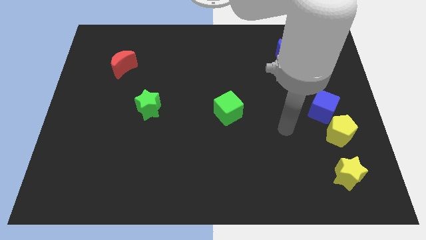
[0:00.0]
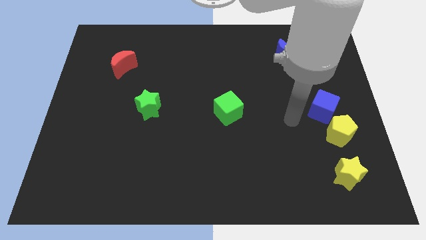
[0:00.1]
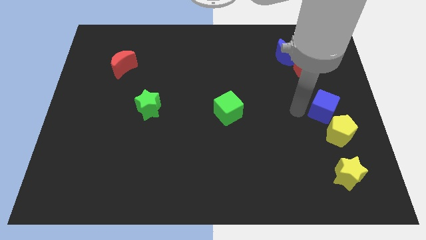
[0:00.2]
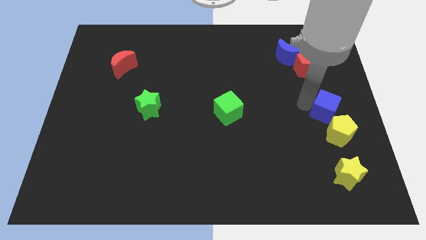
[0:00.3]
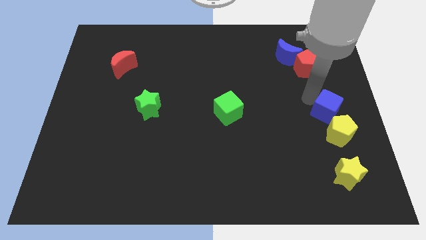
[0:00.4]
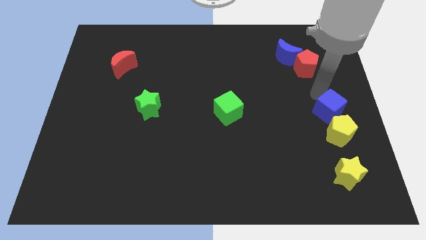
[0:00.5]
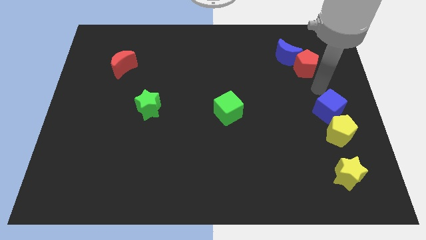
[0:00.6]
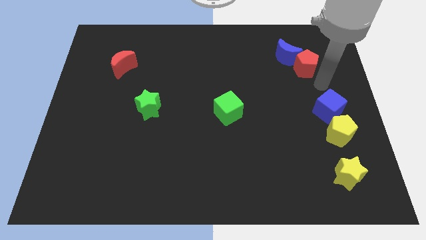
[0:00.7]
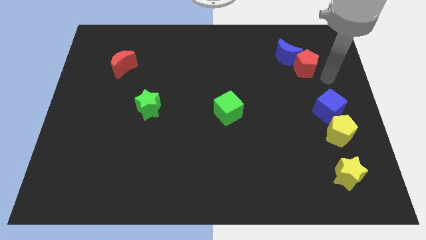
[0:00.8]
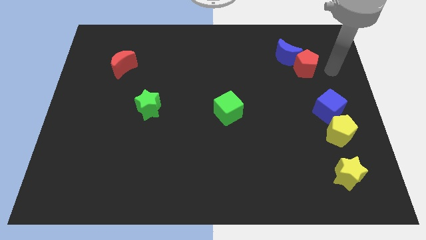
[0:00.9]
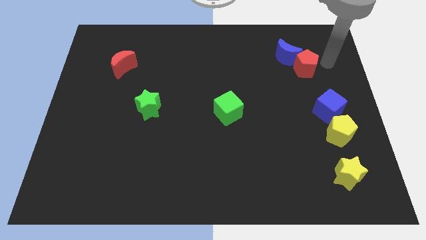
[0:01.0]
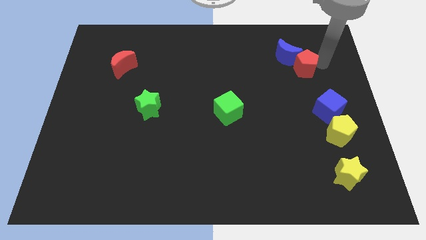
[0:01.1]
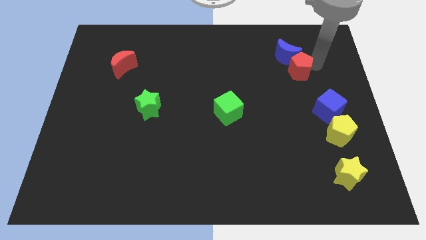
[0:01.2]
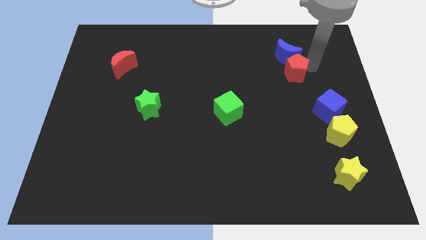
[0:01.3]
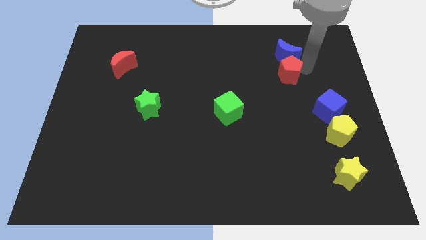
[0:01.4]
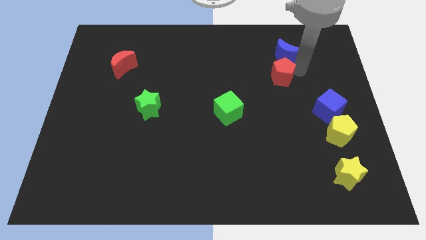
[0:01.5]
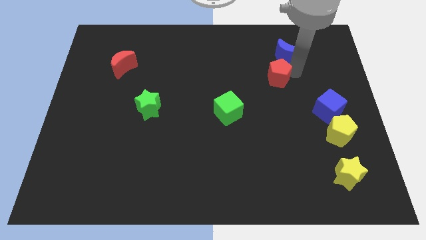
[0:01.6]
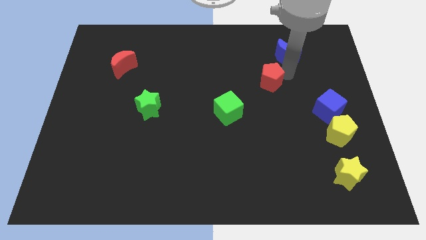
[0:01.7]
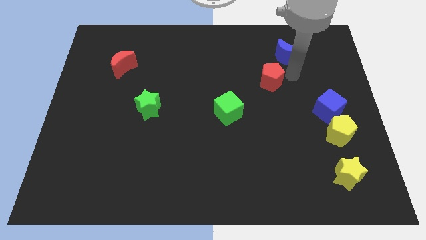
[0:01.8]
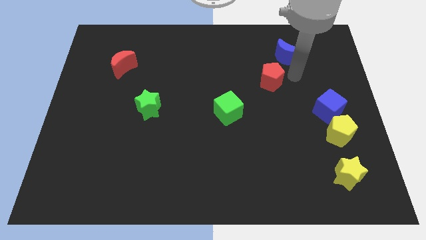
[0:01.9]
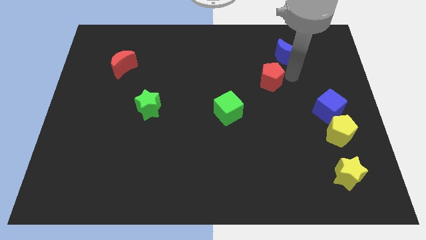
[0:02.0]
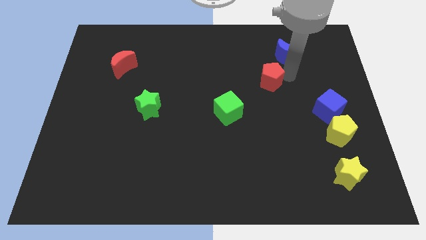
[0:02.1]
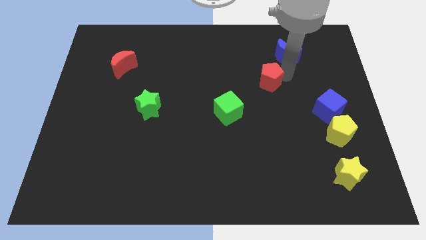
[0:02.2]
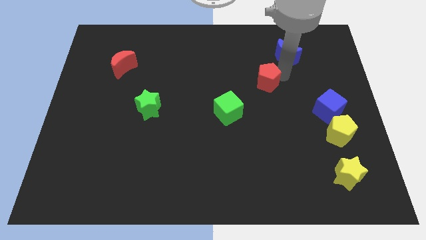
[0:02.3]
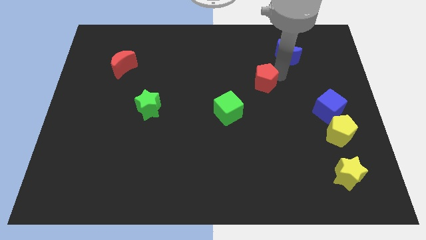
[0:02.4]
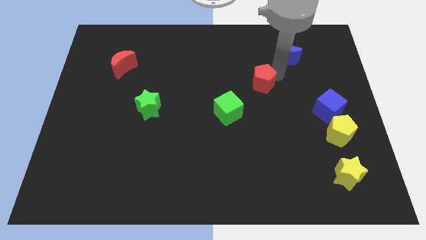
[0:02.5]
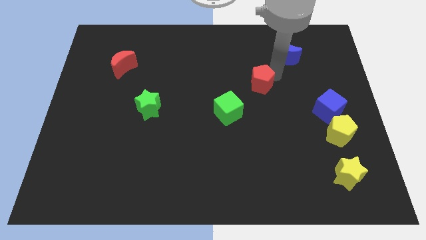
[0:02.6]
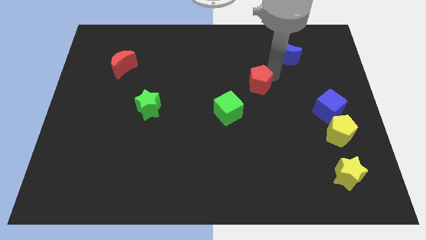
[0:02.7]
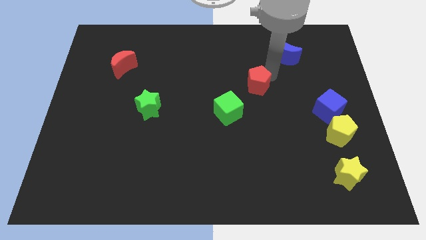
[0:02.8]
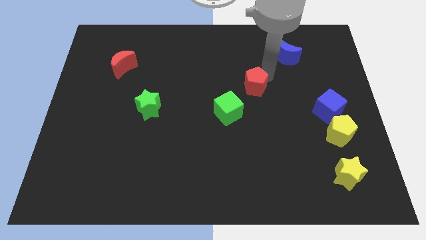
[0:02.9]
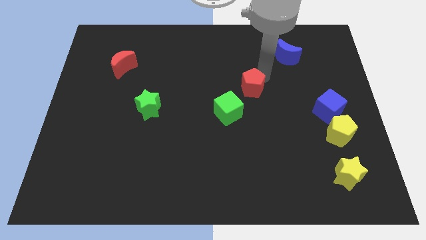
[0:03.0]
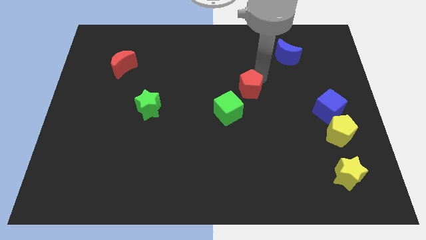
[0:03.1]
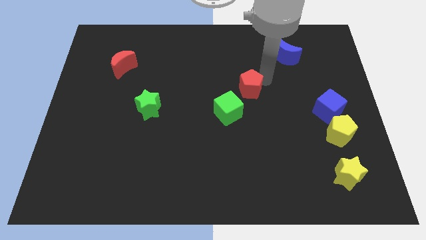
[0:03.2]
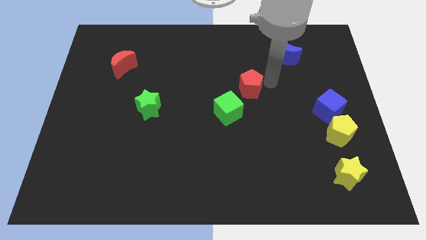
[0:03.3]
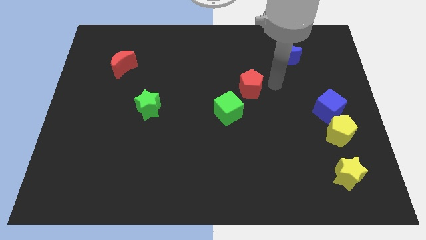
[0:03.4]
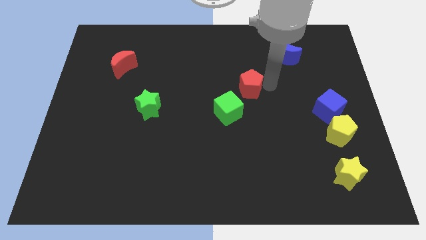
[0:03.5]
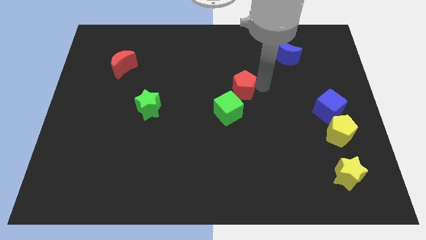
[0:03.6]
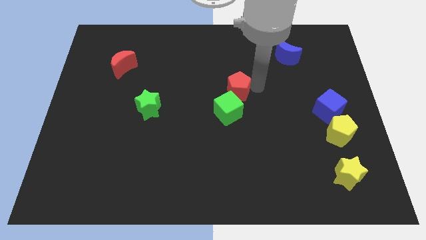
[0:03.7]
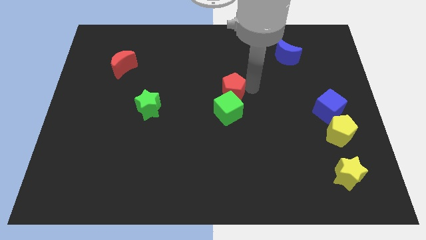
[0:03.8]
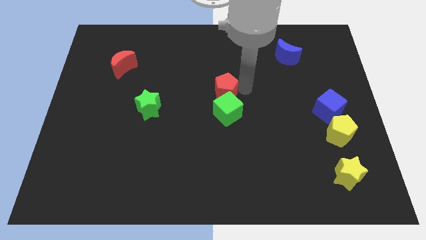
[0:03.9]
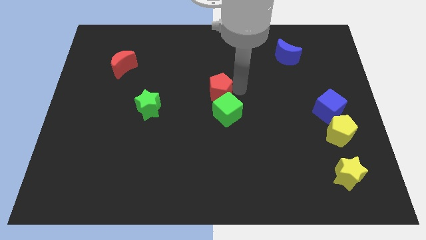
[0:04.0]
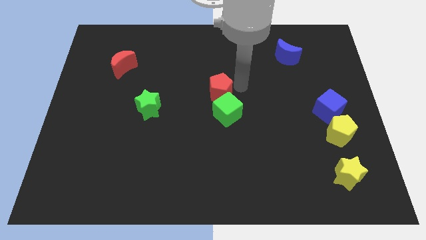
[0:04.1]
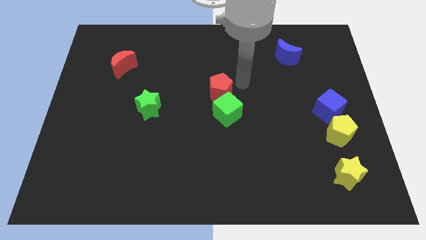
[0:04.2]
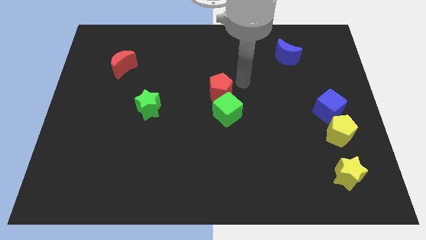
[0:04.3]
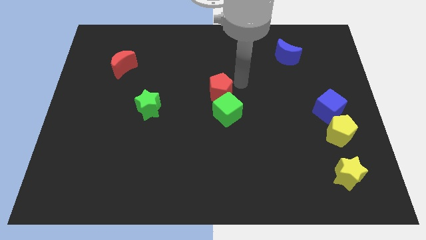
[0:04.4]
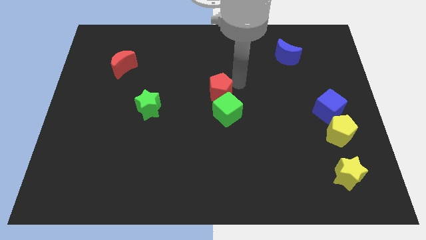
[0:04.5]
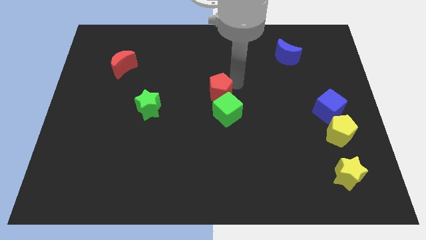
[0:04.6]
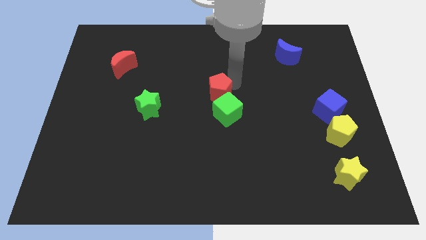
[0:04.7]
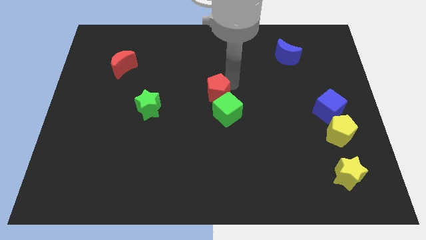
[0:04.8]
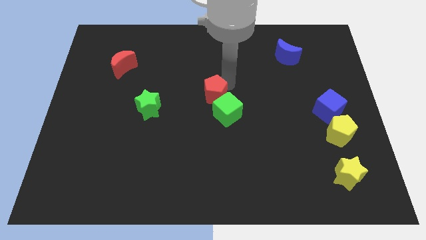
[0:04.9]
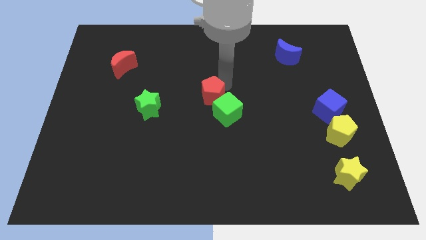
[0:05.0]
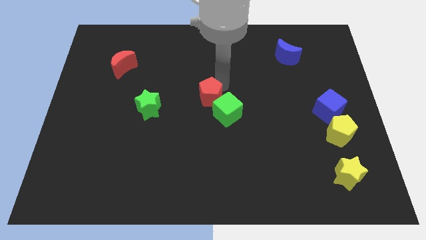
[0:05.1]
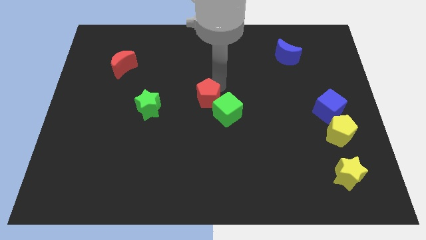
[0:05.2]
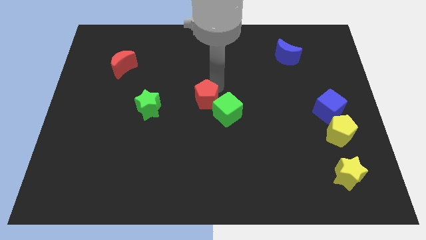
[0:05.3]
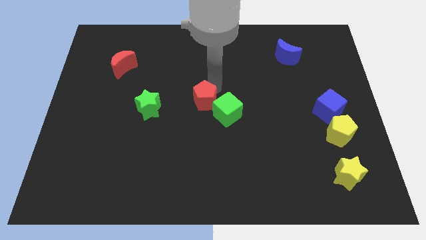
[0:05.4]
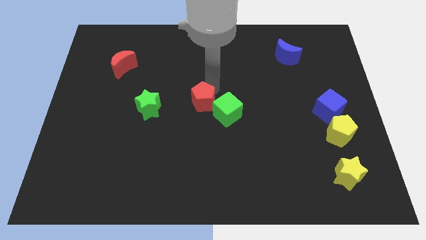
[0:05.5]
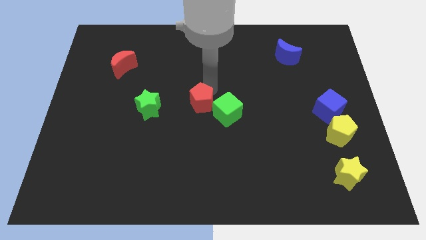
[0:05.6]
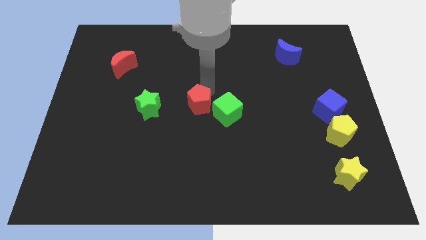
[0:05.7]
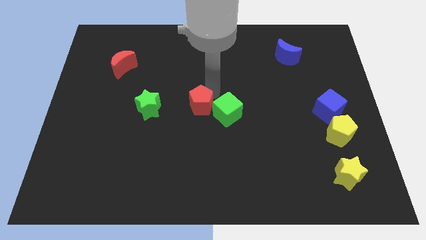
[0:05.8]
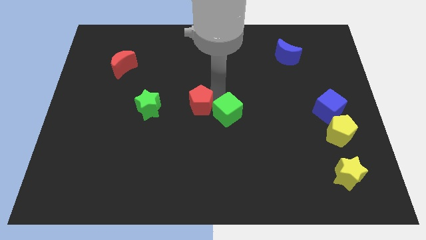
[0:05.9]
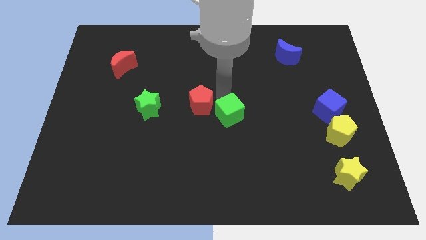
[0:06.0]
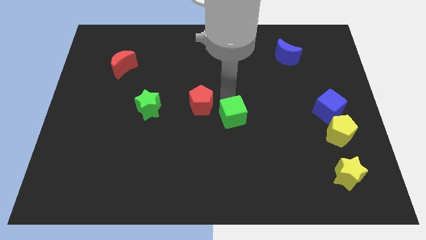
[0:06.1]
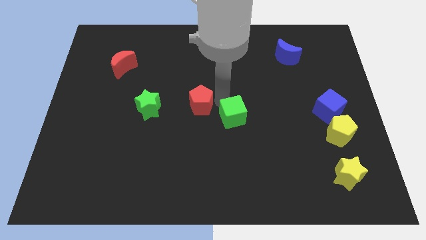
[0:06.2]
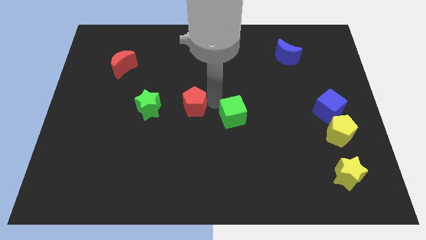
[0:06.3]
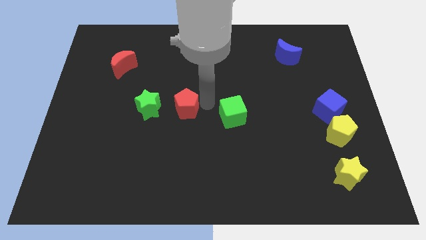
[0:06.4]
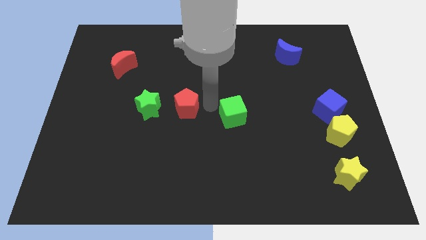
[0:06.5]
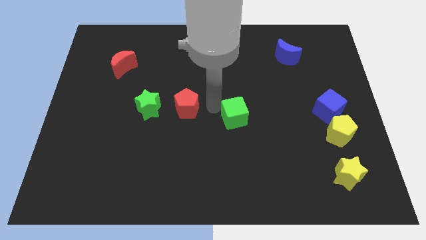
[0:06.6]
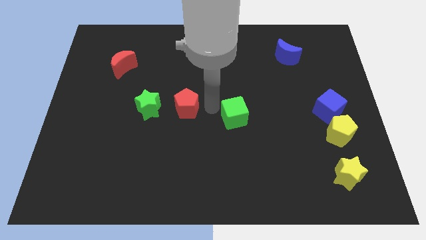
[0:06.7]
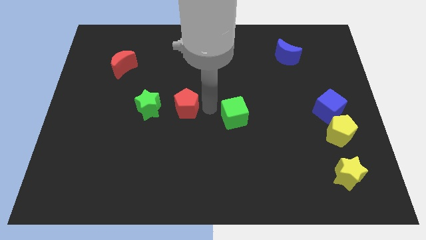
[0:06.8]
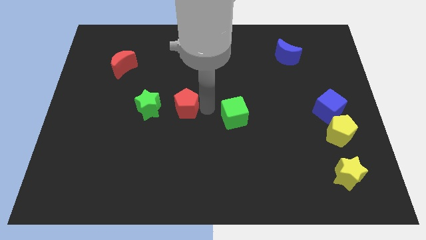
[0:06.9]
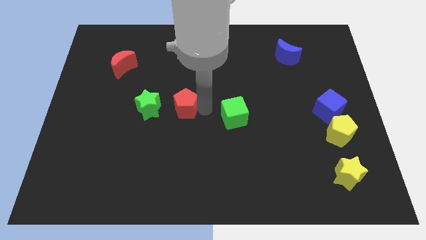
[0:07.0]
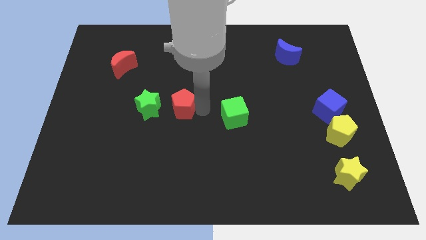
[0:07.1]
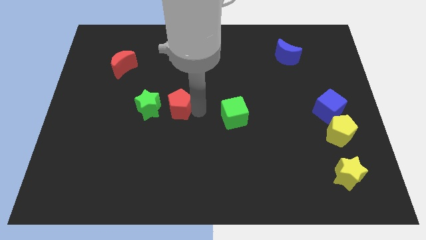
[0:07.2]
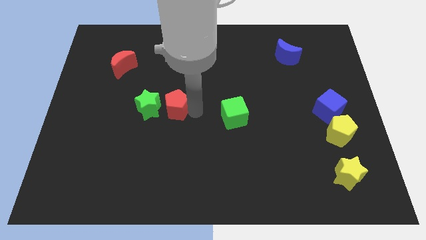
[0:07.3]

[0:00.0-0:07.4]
put the red pentagon to the green star
